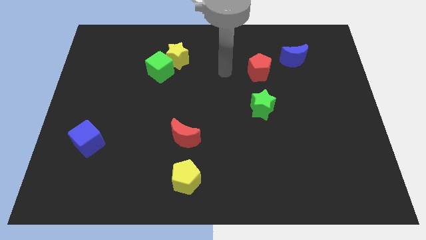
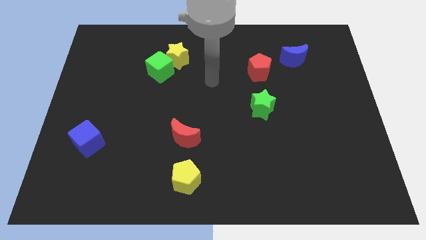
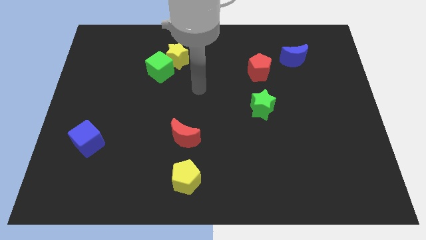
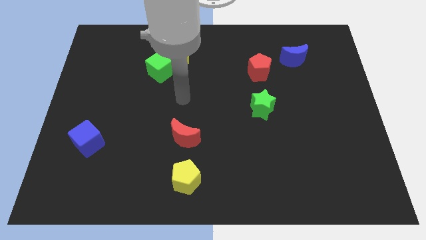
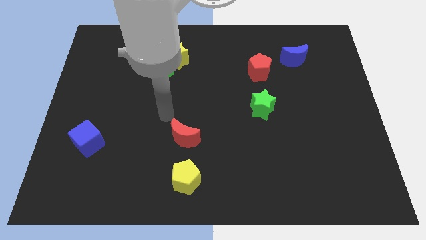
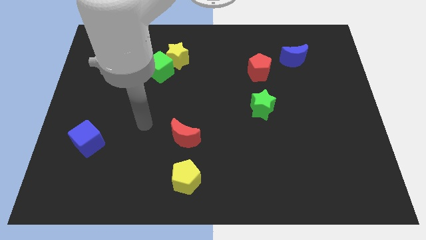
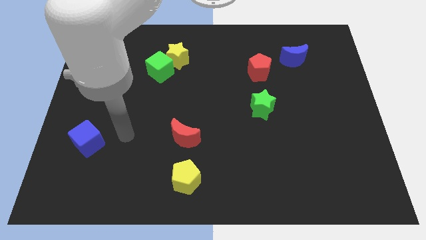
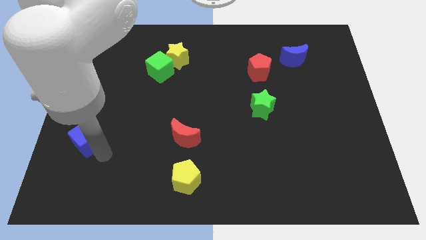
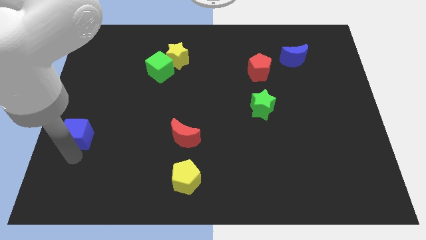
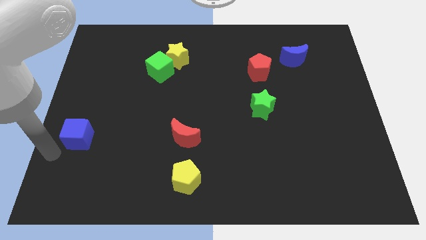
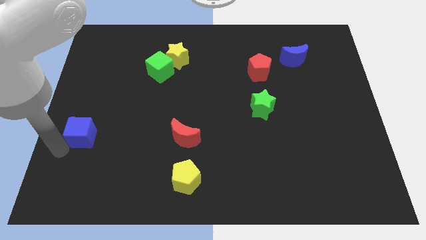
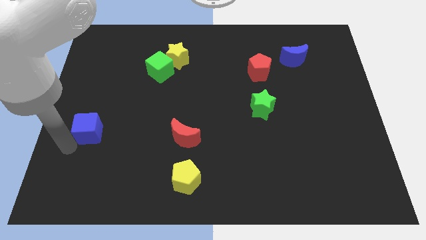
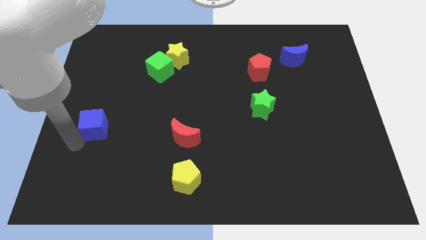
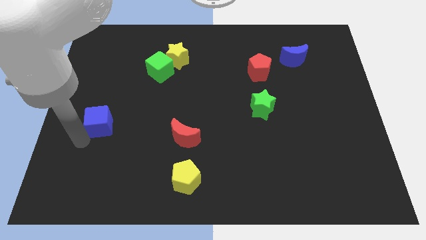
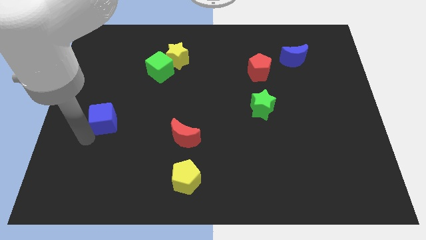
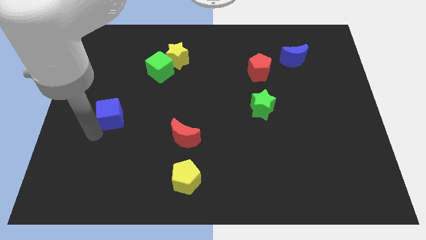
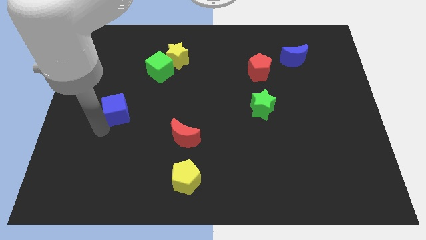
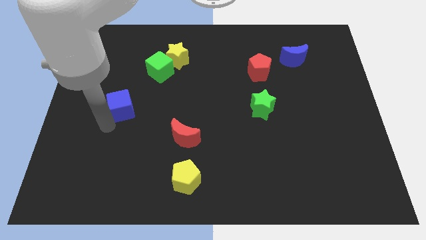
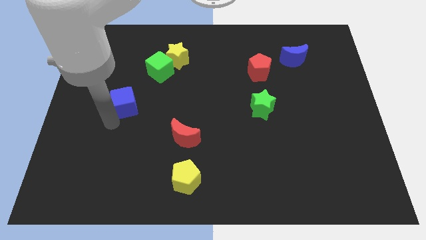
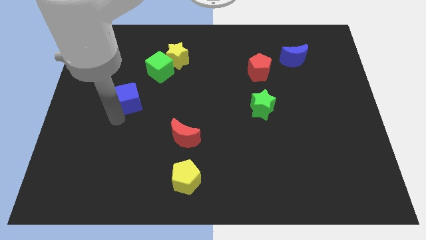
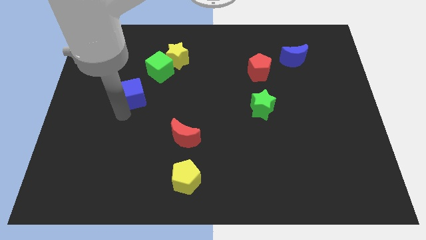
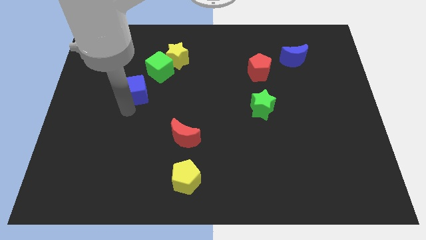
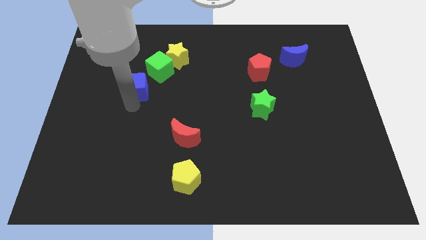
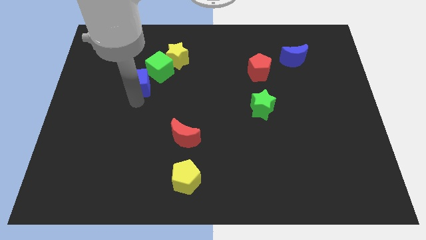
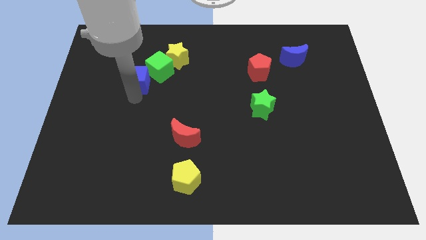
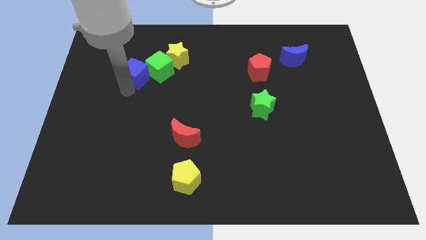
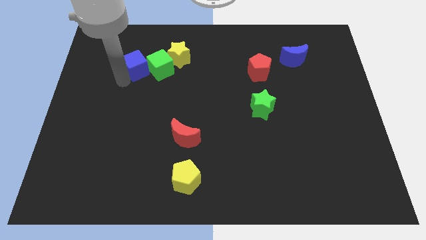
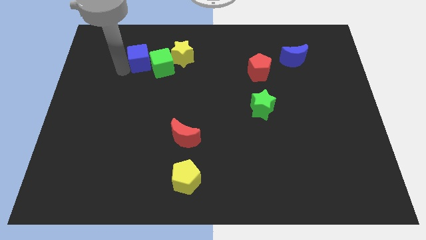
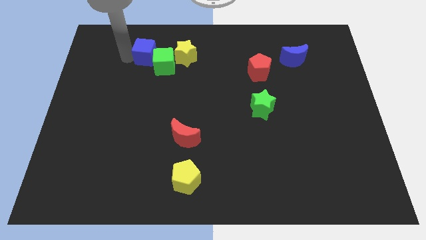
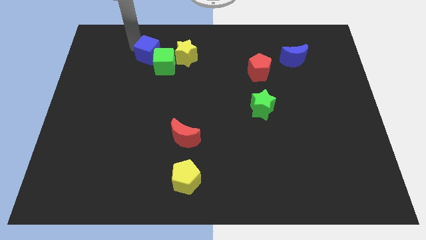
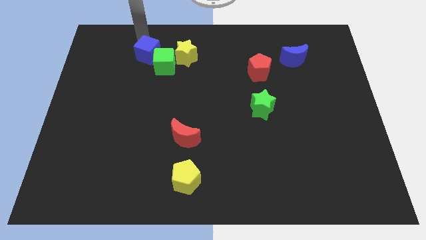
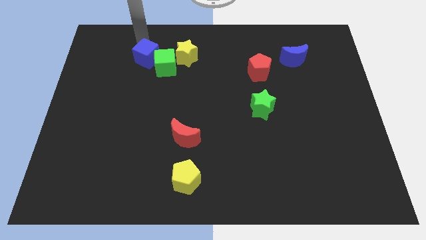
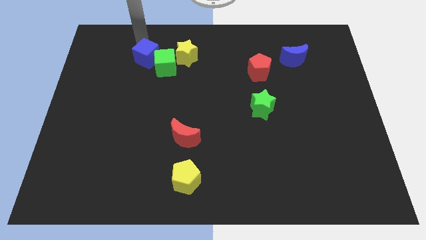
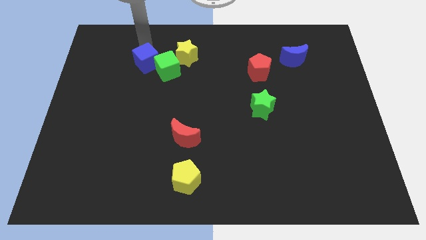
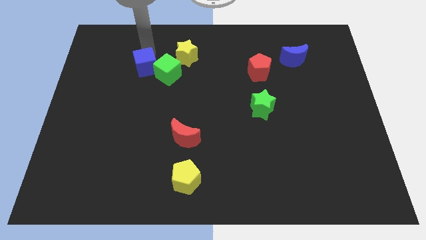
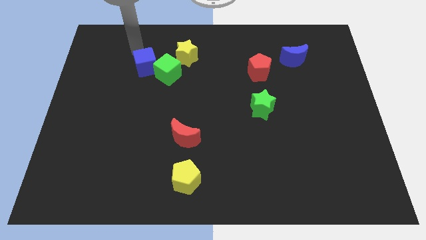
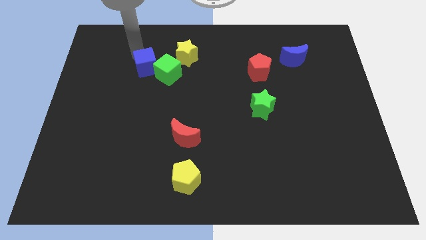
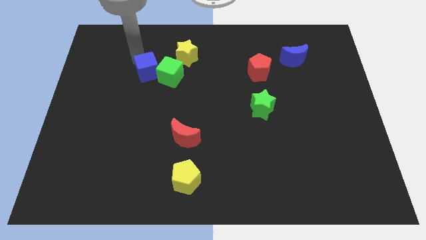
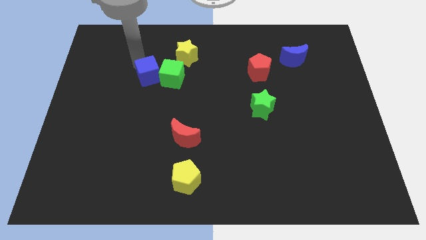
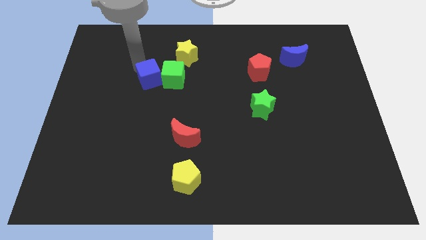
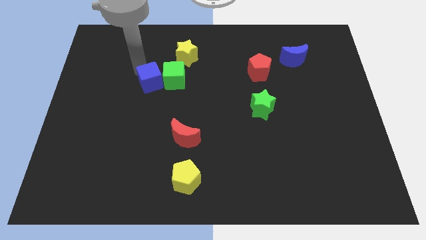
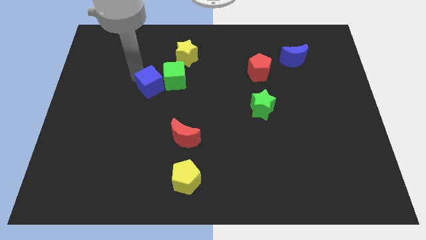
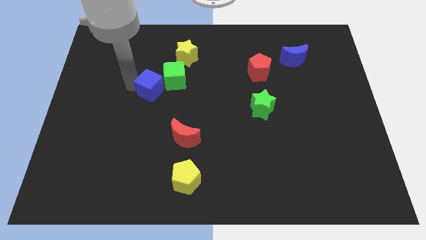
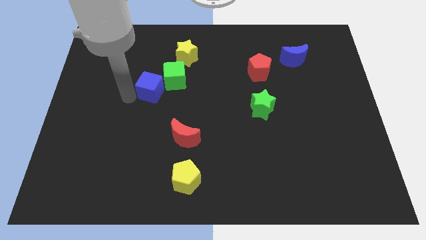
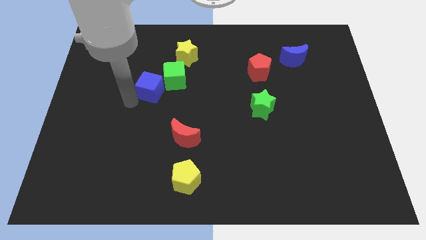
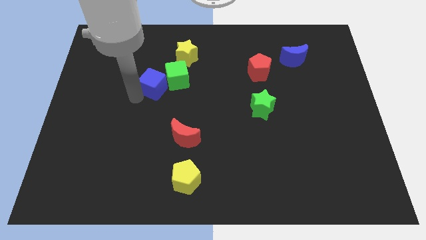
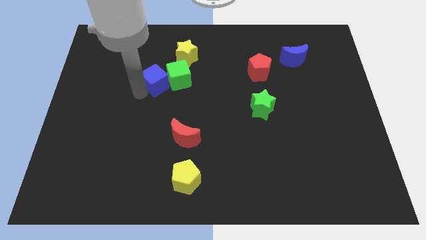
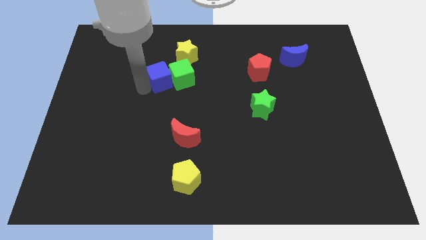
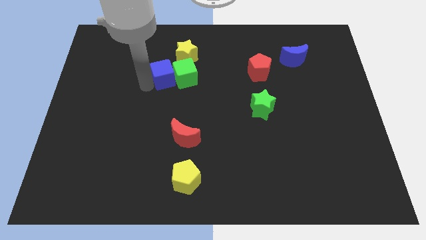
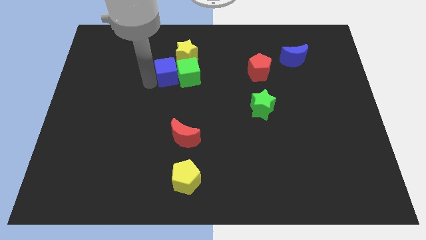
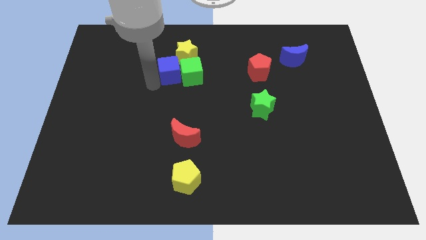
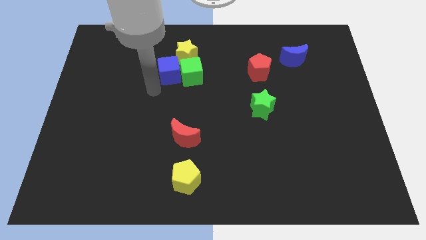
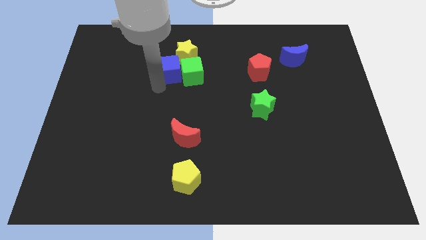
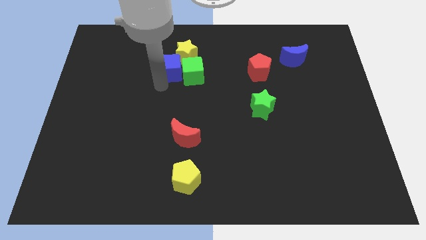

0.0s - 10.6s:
slide the blue cube to the yellow star

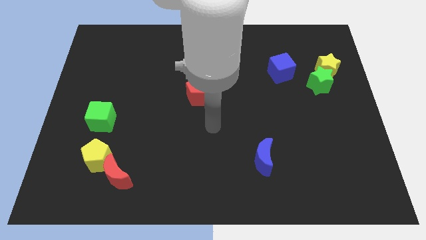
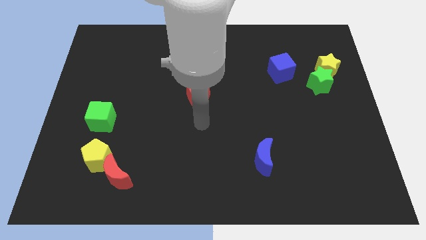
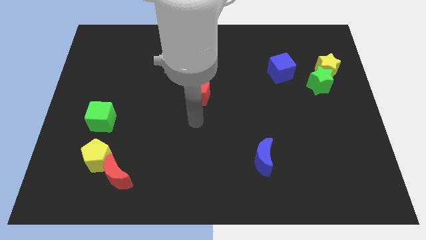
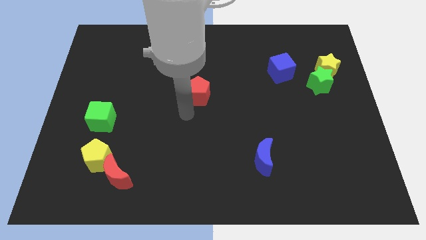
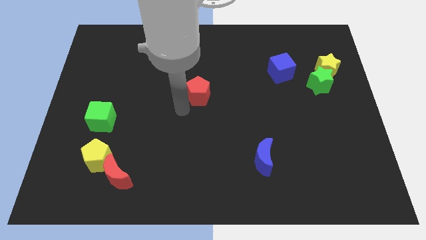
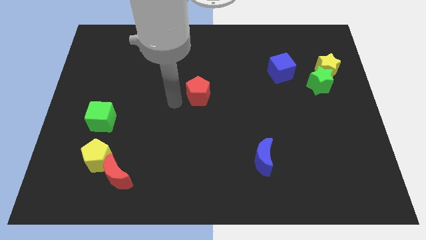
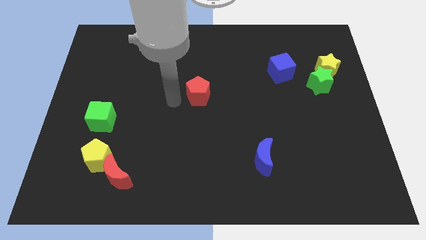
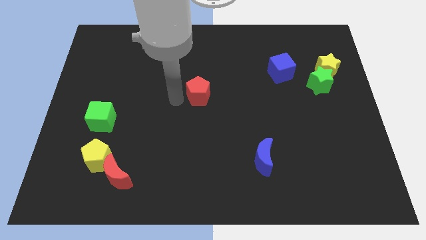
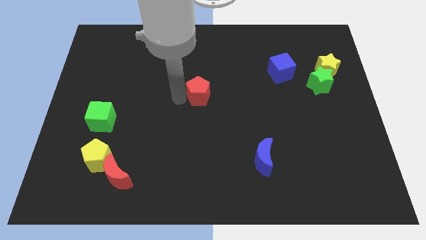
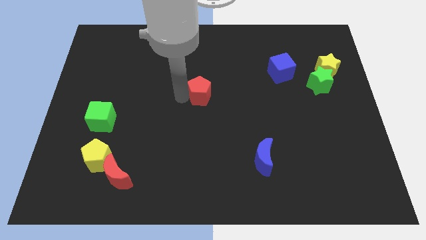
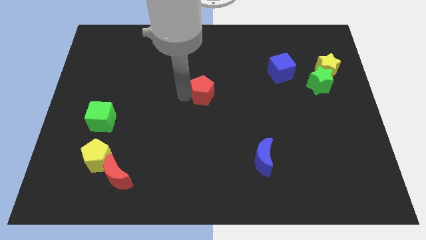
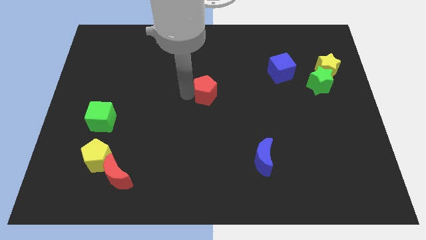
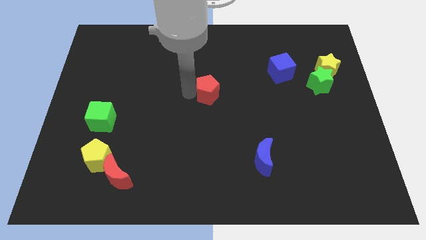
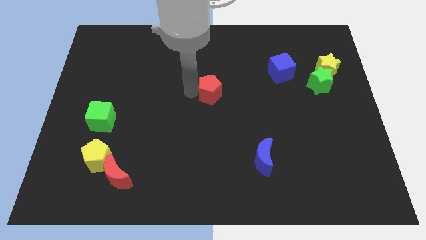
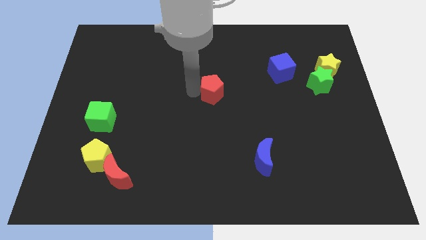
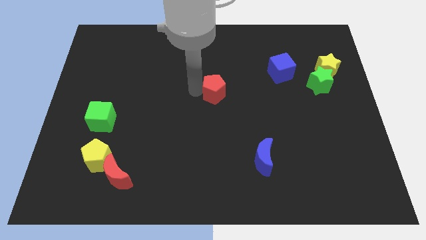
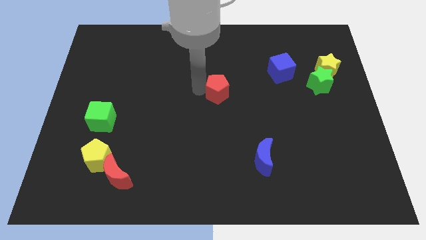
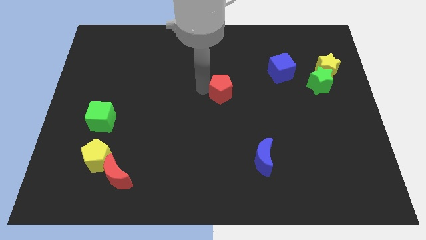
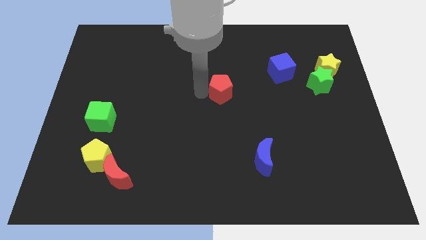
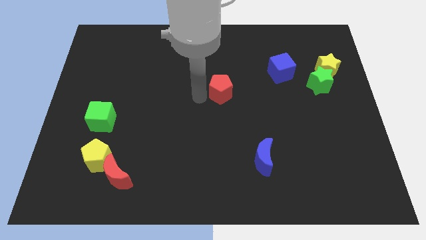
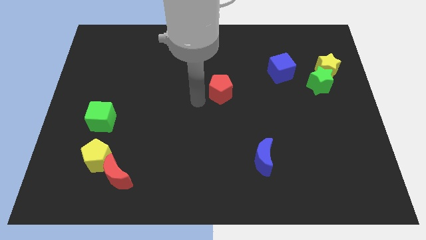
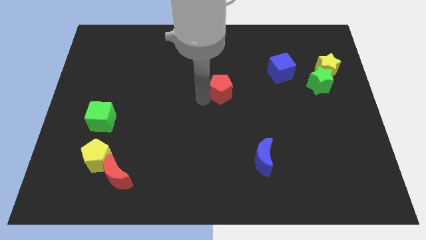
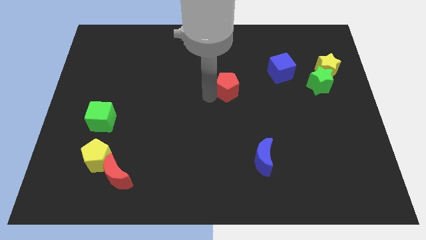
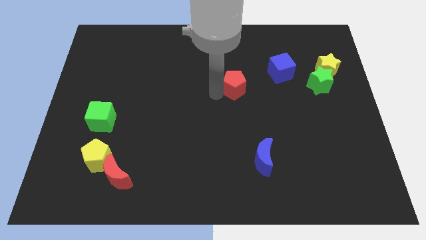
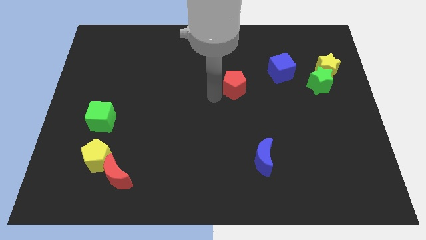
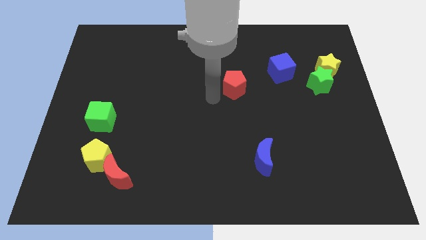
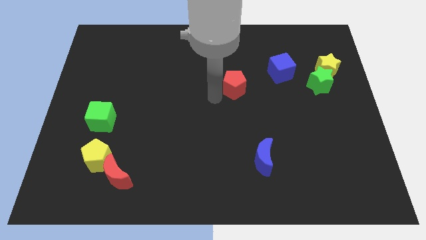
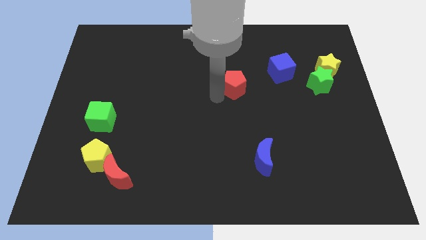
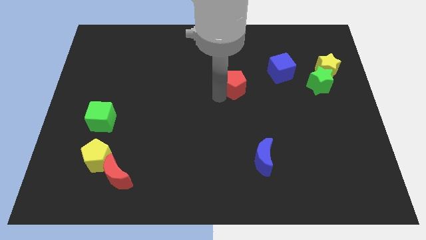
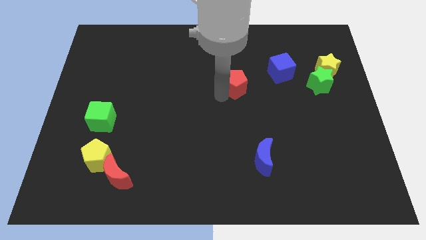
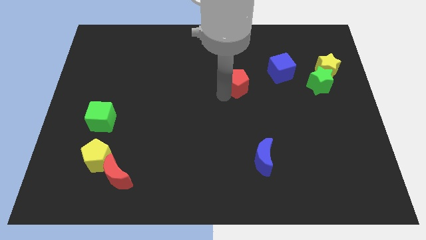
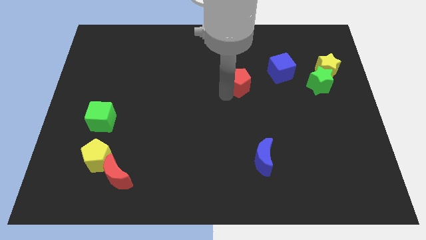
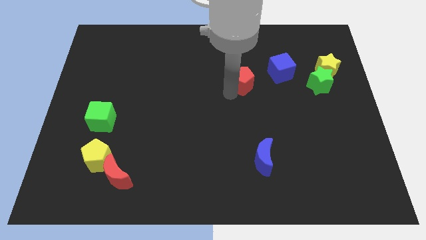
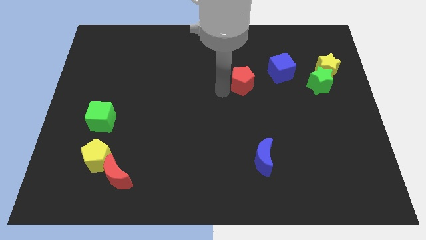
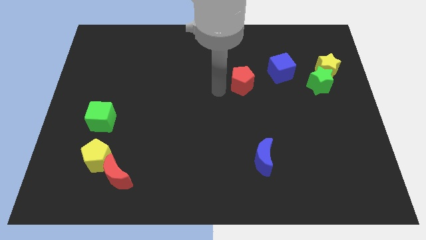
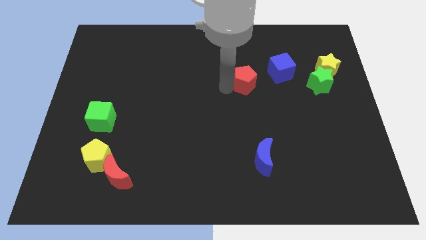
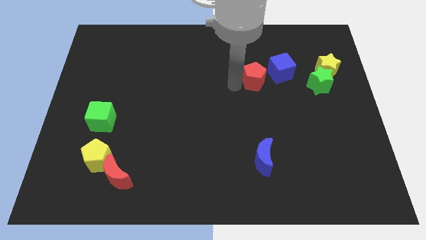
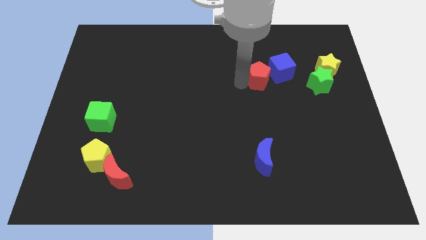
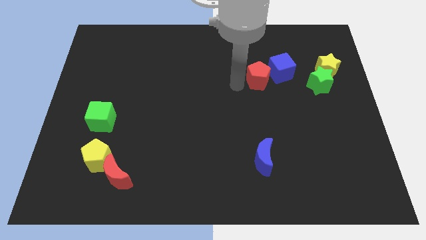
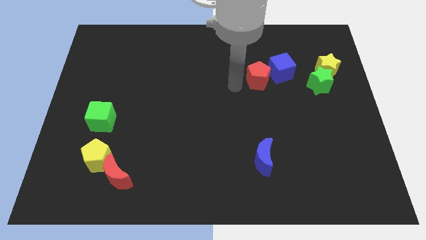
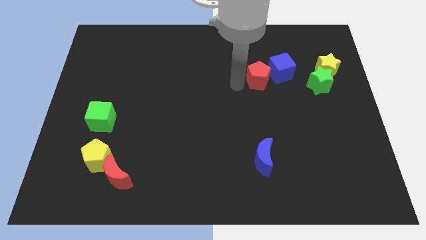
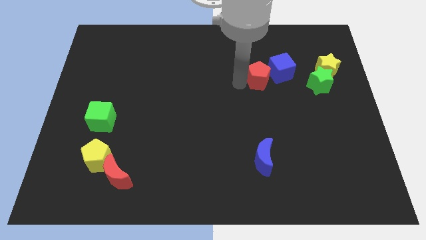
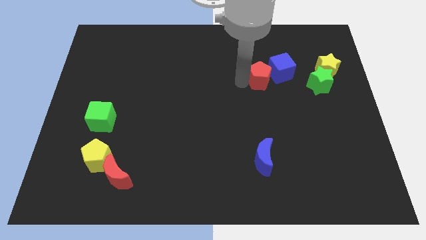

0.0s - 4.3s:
slide the red pentagon next to the blue cube
